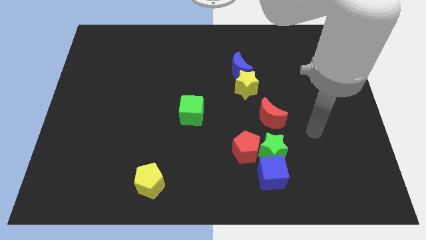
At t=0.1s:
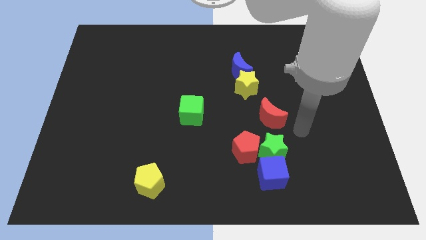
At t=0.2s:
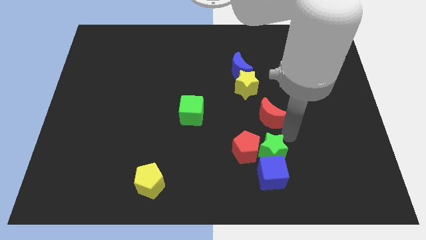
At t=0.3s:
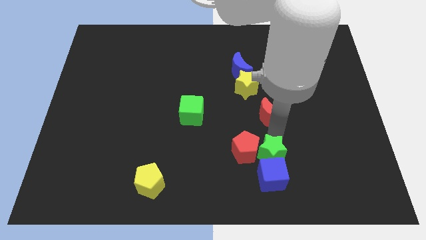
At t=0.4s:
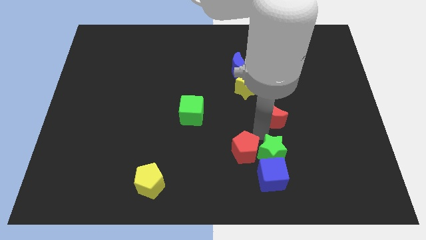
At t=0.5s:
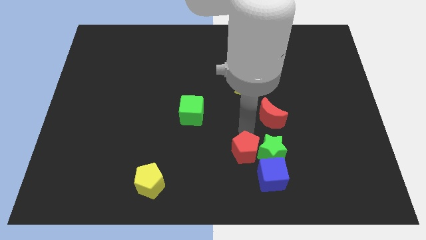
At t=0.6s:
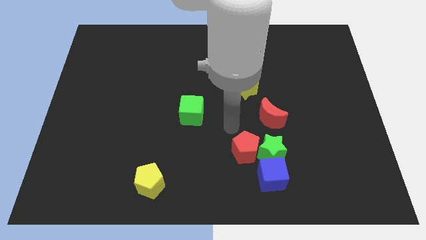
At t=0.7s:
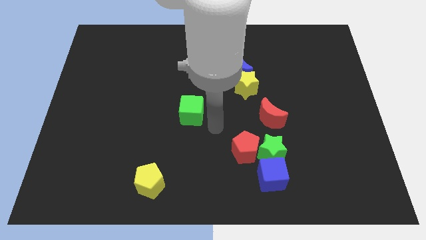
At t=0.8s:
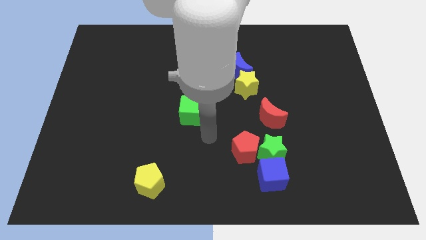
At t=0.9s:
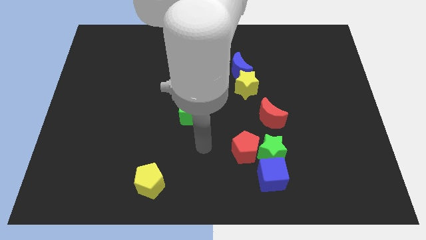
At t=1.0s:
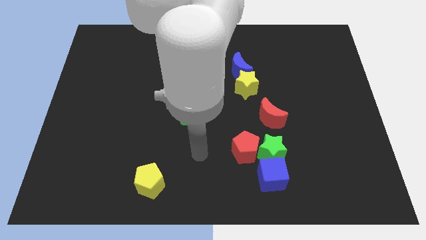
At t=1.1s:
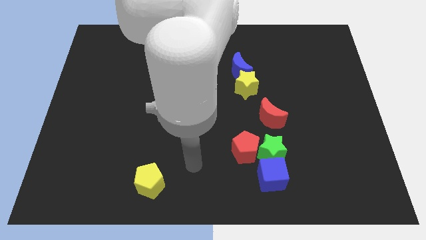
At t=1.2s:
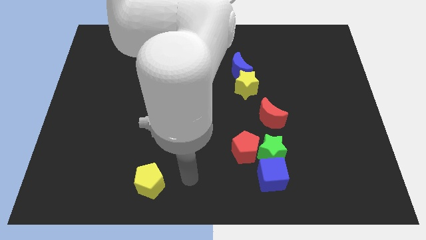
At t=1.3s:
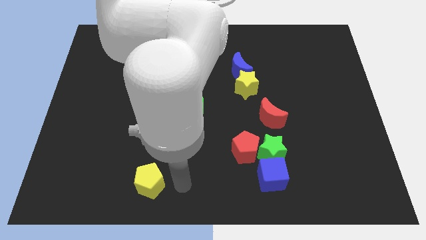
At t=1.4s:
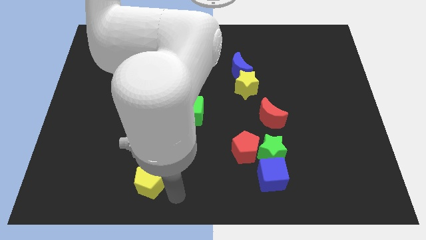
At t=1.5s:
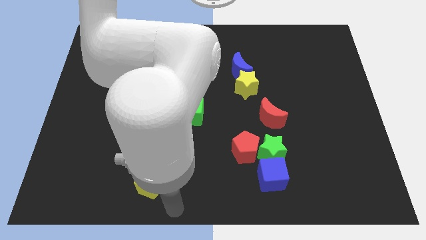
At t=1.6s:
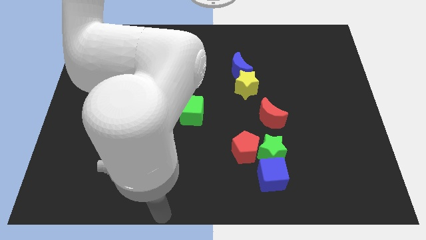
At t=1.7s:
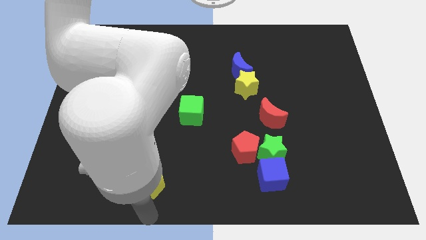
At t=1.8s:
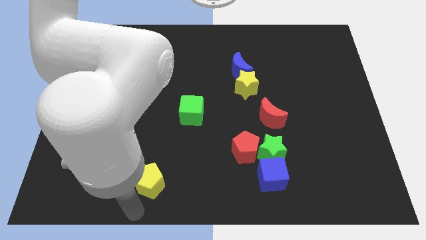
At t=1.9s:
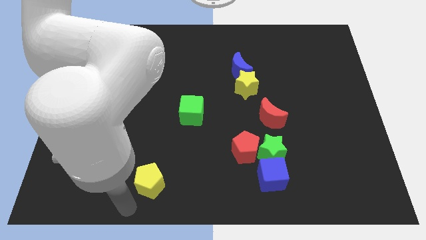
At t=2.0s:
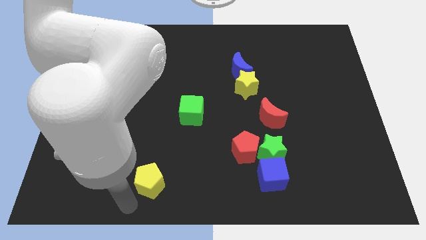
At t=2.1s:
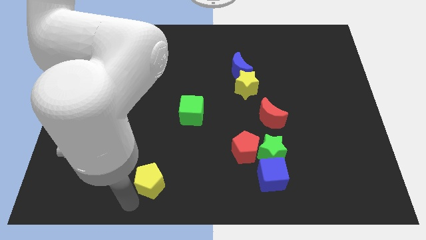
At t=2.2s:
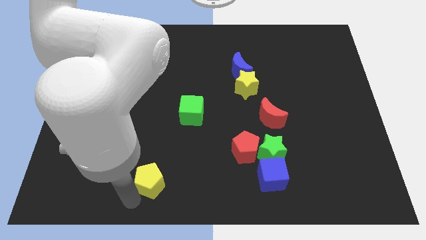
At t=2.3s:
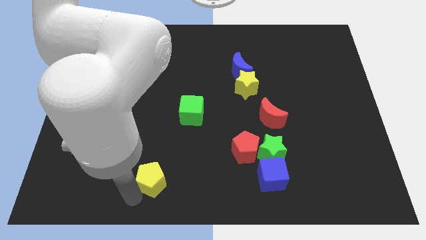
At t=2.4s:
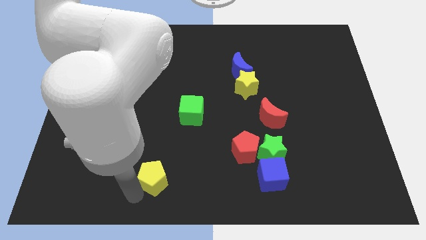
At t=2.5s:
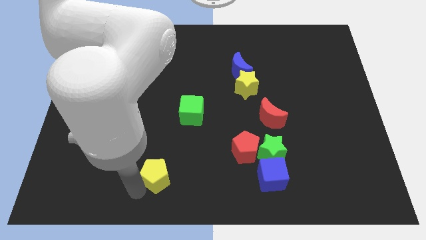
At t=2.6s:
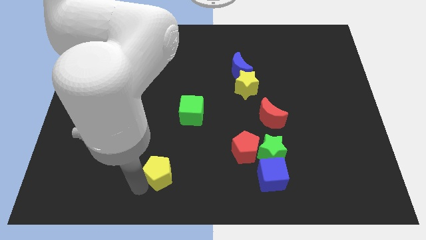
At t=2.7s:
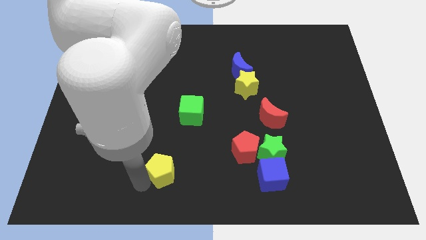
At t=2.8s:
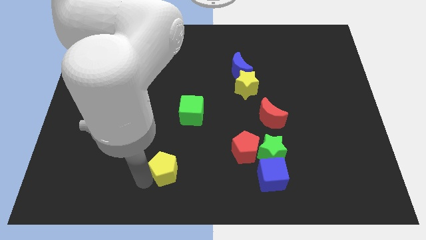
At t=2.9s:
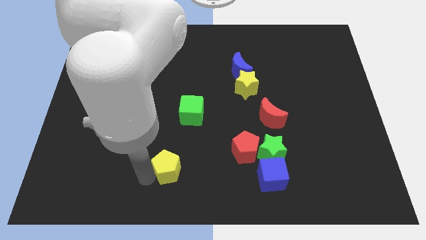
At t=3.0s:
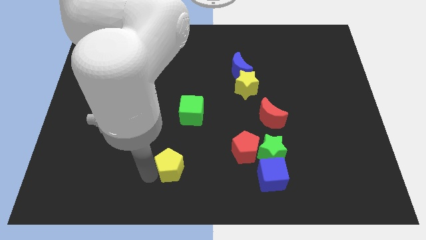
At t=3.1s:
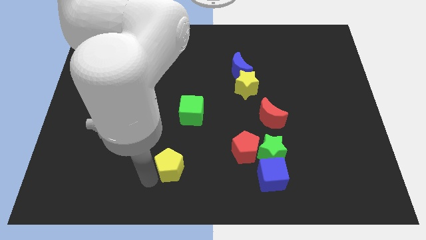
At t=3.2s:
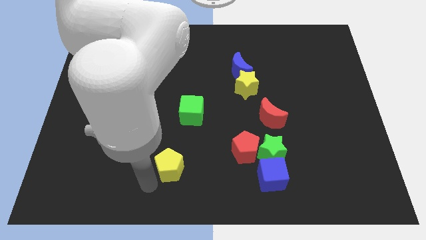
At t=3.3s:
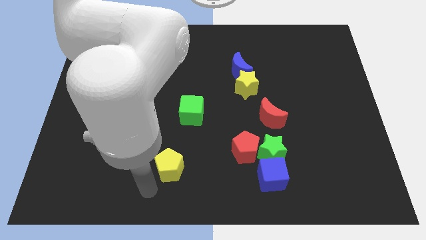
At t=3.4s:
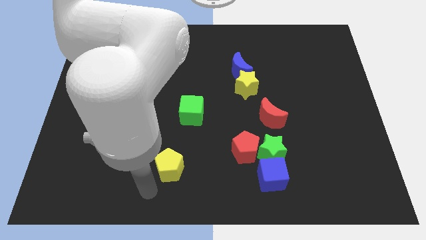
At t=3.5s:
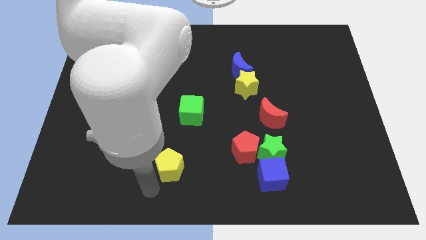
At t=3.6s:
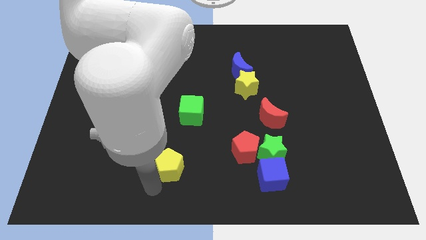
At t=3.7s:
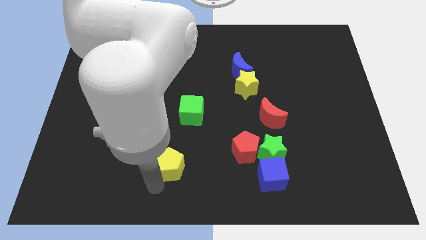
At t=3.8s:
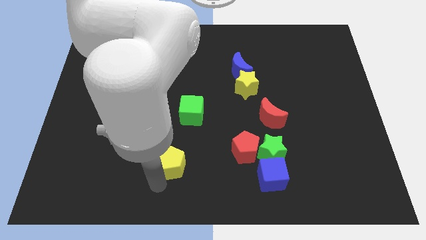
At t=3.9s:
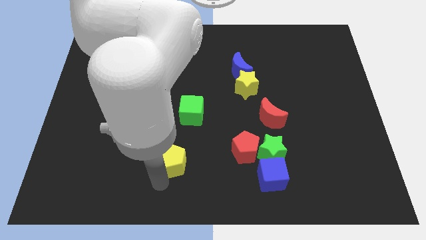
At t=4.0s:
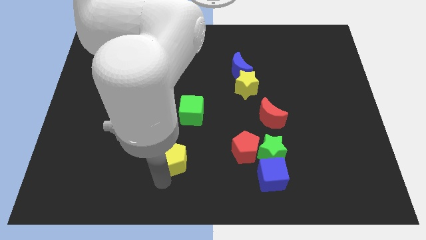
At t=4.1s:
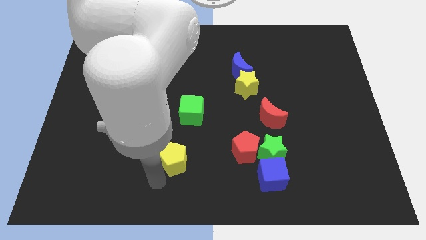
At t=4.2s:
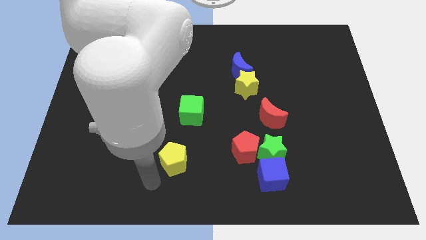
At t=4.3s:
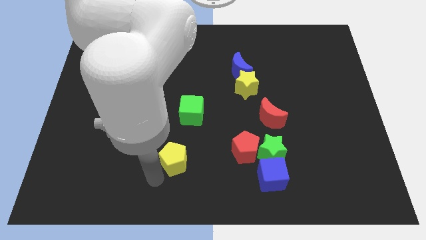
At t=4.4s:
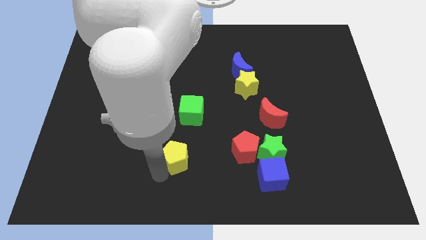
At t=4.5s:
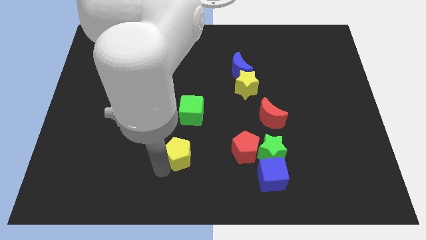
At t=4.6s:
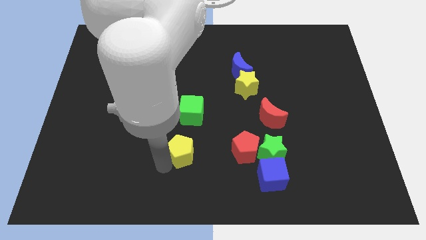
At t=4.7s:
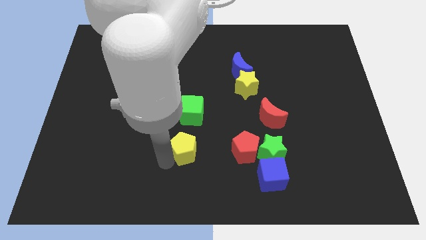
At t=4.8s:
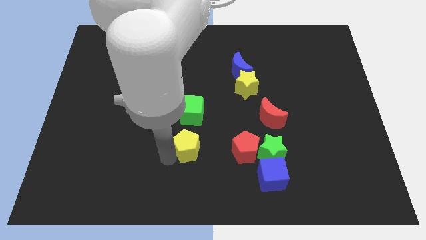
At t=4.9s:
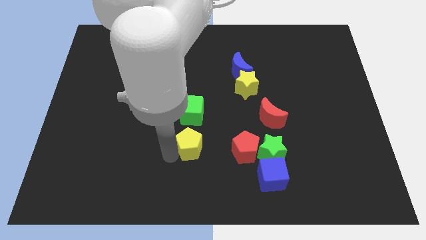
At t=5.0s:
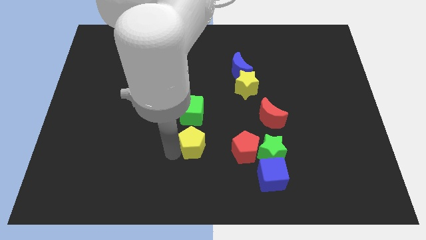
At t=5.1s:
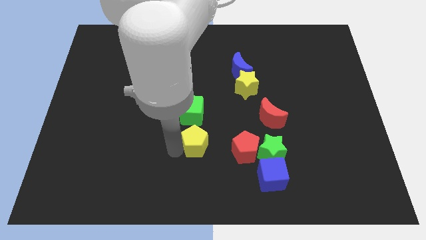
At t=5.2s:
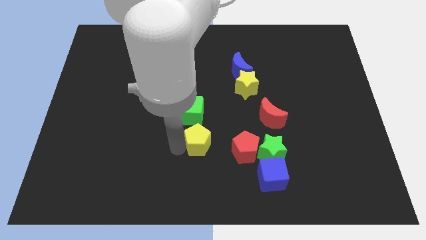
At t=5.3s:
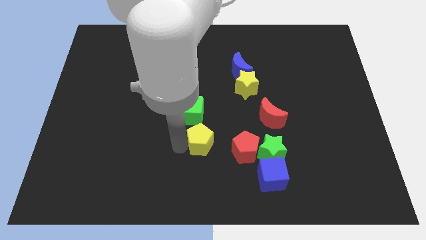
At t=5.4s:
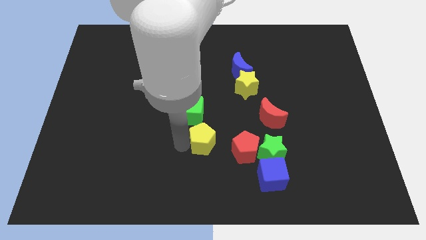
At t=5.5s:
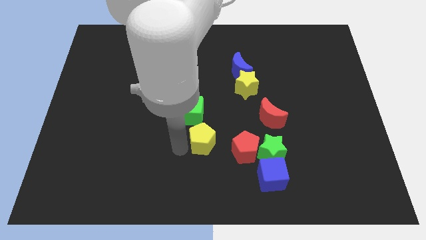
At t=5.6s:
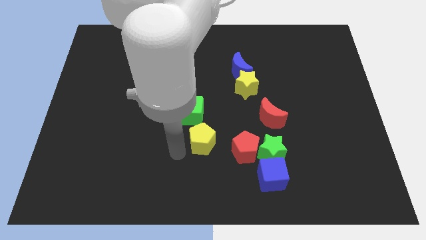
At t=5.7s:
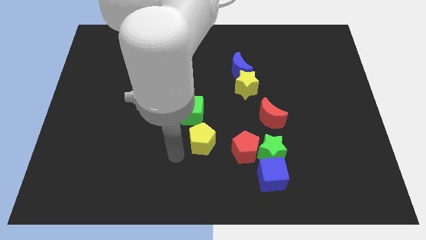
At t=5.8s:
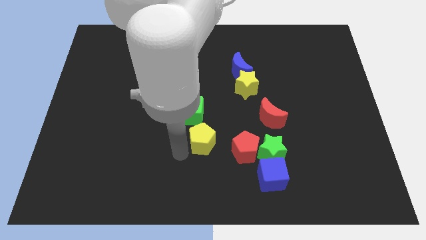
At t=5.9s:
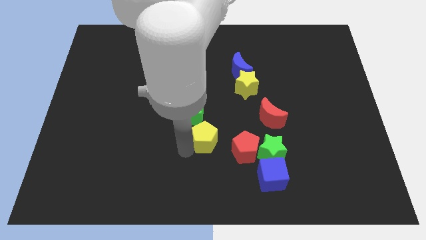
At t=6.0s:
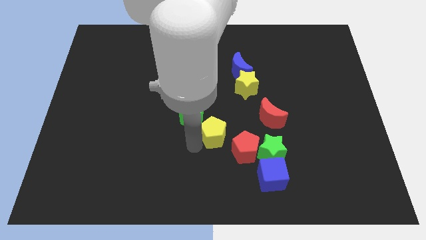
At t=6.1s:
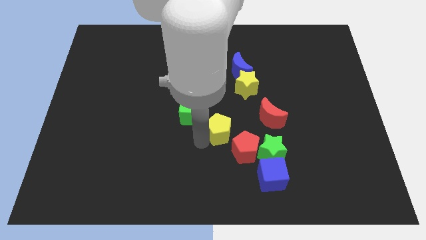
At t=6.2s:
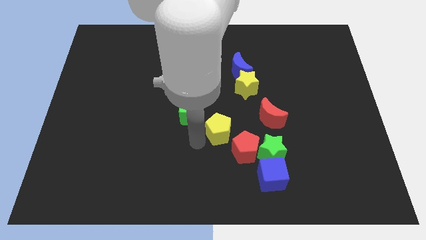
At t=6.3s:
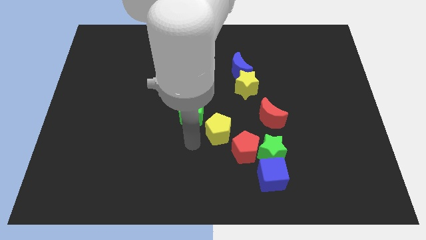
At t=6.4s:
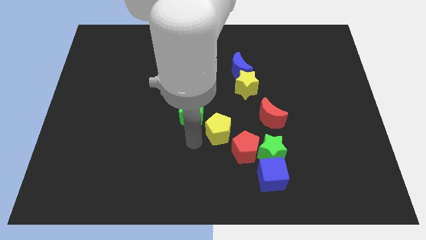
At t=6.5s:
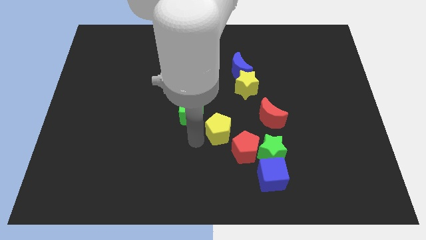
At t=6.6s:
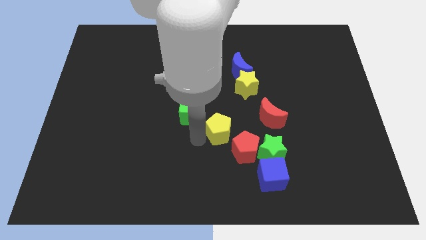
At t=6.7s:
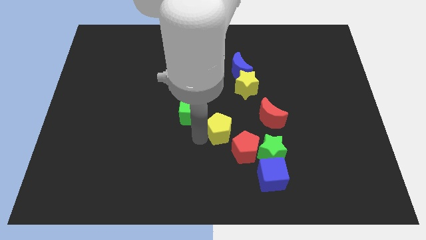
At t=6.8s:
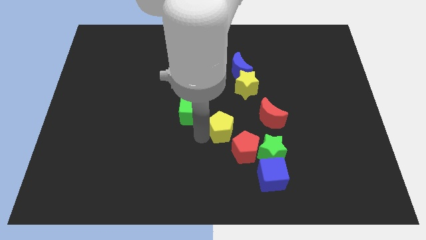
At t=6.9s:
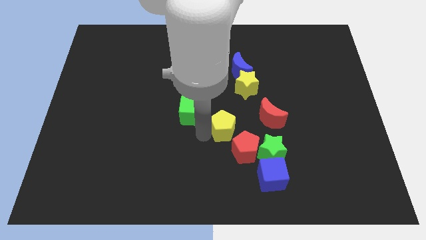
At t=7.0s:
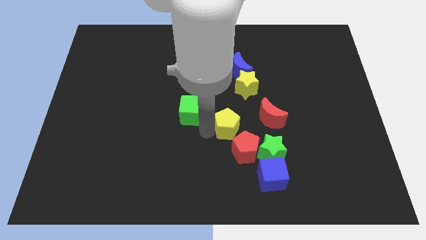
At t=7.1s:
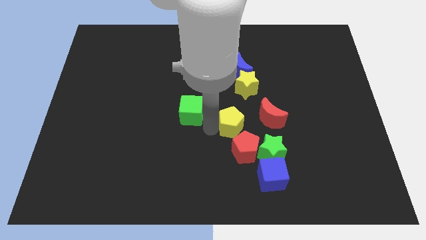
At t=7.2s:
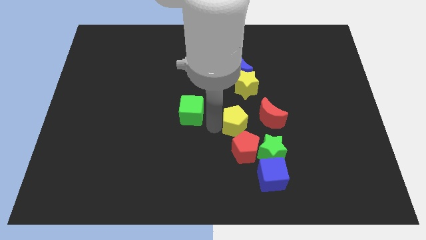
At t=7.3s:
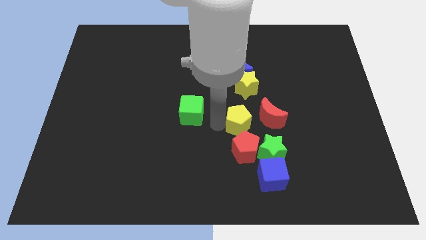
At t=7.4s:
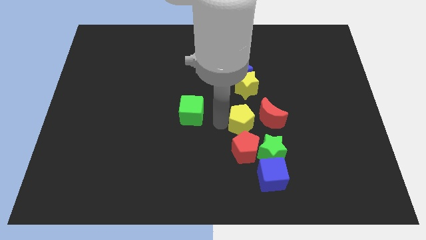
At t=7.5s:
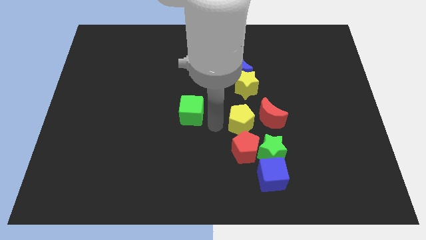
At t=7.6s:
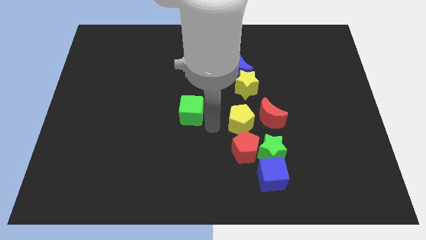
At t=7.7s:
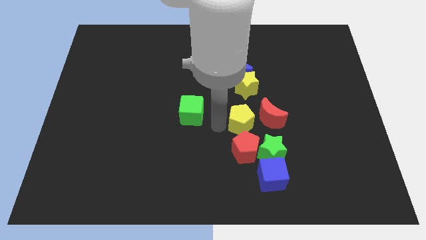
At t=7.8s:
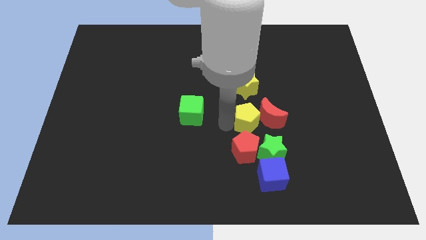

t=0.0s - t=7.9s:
slide the yellow pentagon towards the red moon
